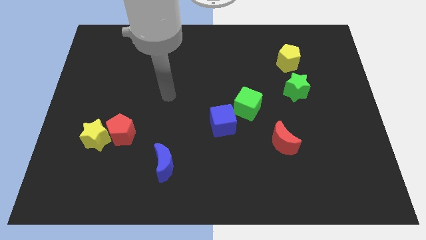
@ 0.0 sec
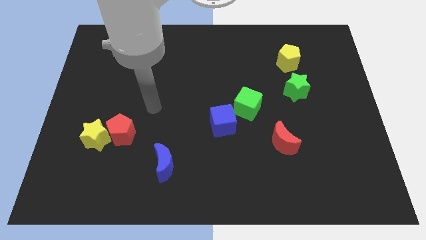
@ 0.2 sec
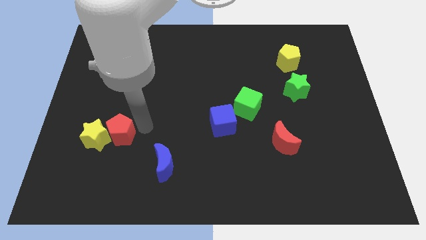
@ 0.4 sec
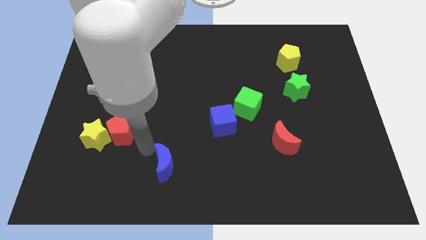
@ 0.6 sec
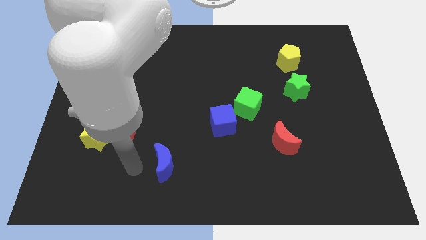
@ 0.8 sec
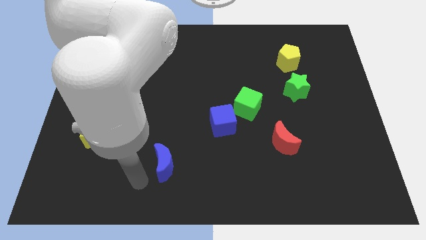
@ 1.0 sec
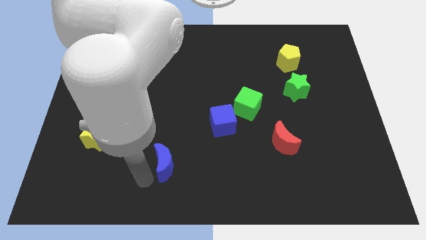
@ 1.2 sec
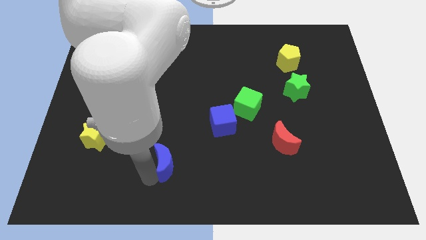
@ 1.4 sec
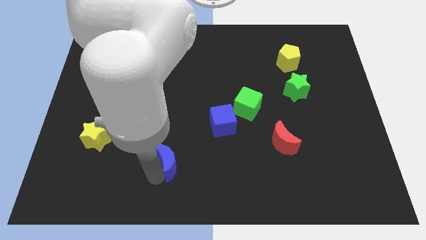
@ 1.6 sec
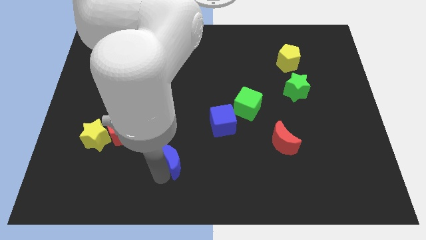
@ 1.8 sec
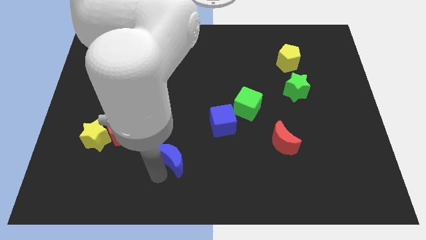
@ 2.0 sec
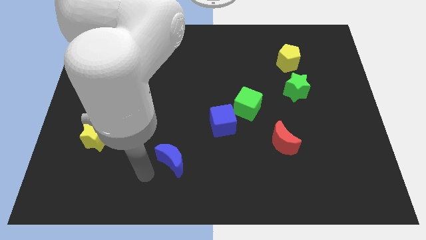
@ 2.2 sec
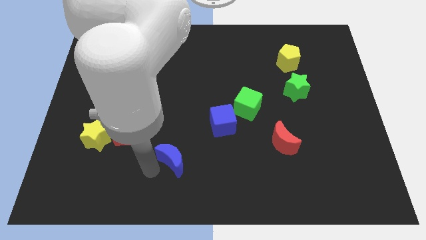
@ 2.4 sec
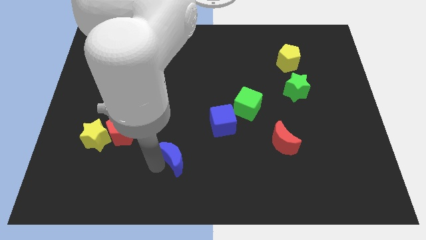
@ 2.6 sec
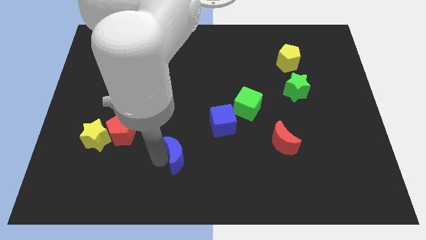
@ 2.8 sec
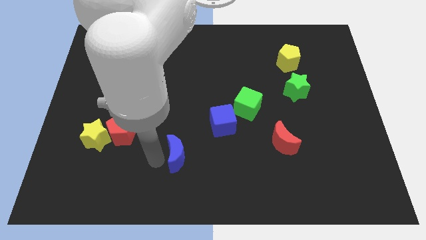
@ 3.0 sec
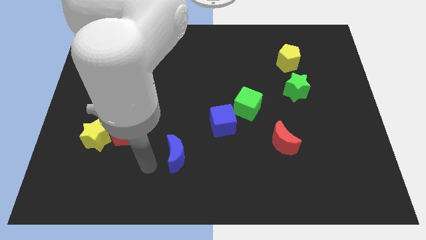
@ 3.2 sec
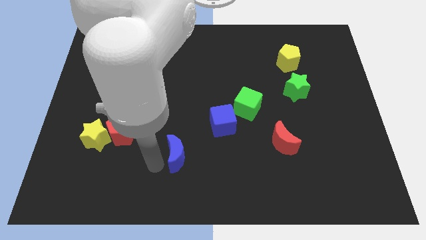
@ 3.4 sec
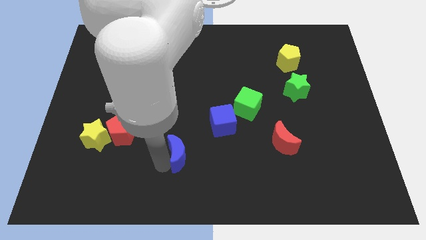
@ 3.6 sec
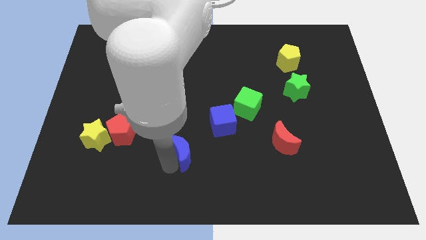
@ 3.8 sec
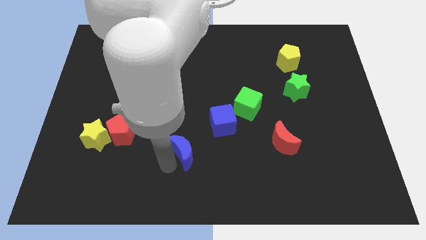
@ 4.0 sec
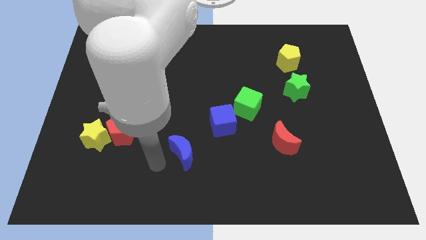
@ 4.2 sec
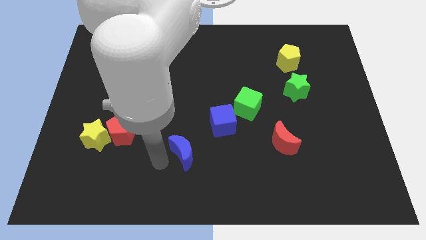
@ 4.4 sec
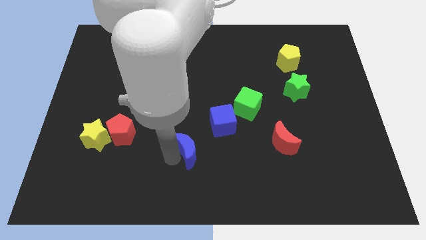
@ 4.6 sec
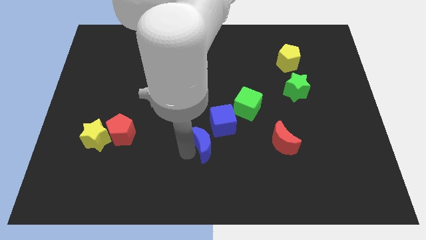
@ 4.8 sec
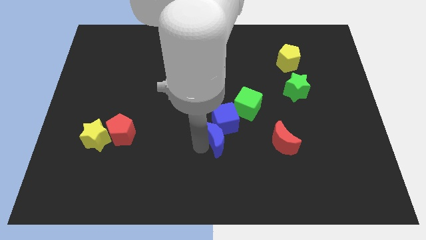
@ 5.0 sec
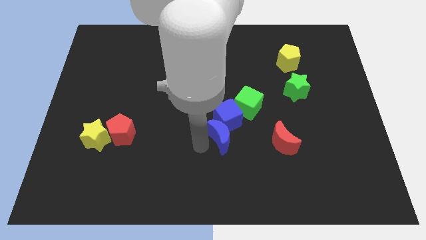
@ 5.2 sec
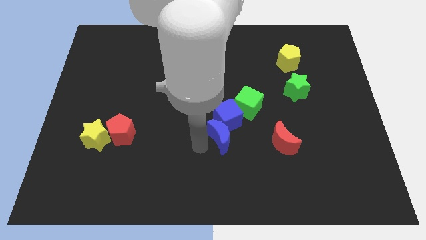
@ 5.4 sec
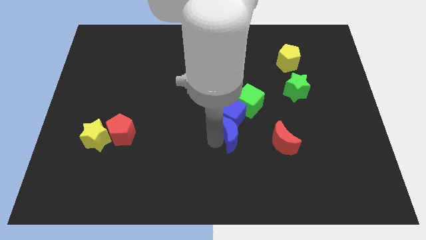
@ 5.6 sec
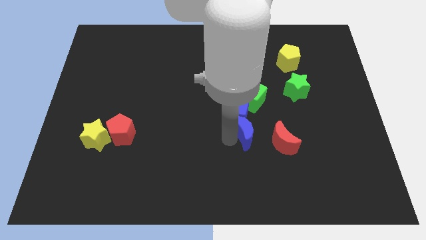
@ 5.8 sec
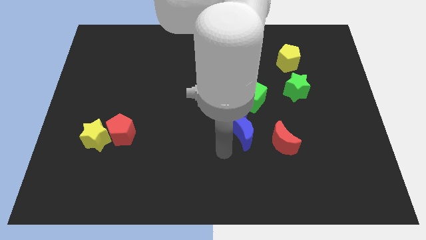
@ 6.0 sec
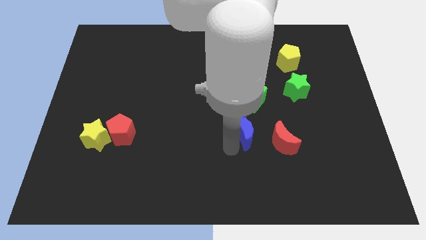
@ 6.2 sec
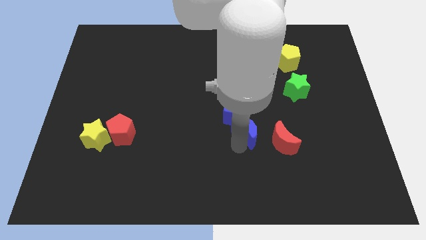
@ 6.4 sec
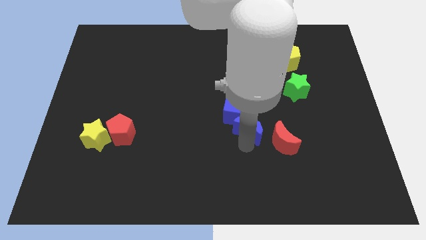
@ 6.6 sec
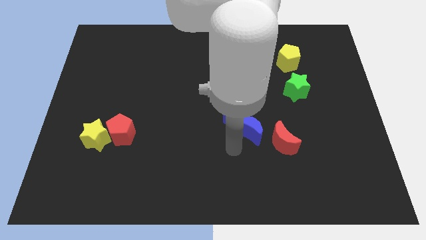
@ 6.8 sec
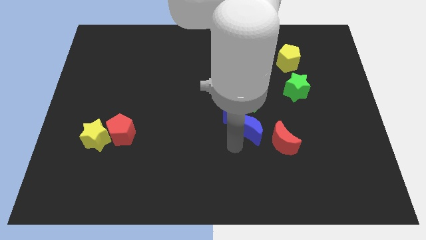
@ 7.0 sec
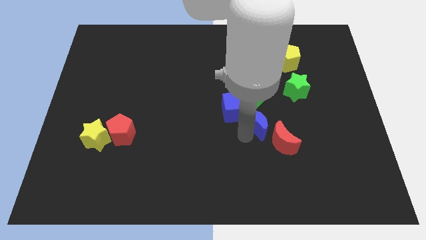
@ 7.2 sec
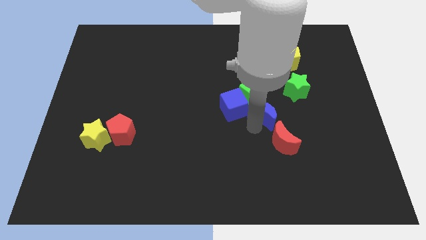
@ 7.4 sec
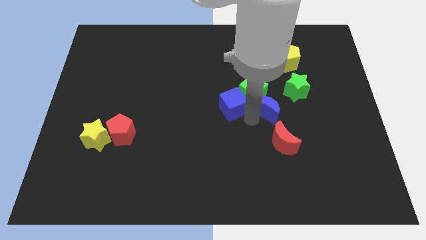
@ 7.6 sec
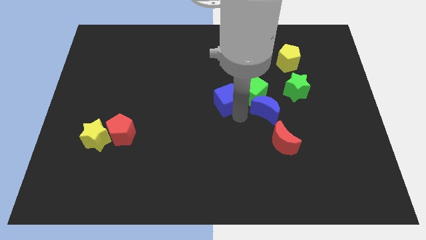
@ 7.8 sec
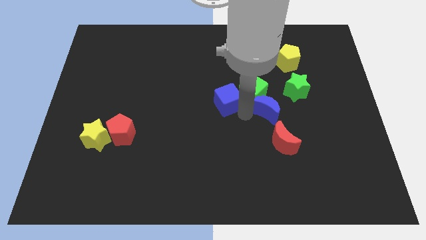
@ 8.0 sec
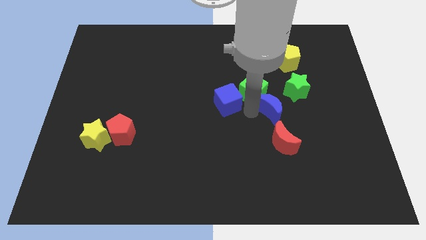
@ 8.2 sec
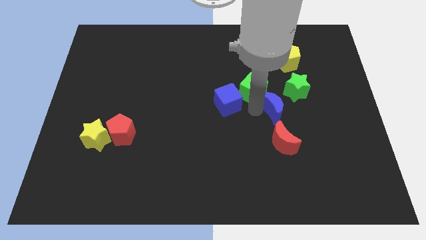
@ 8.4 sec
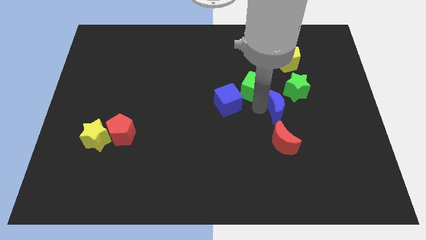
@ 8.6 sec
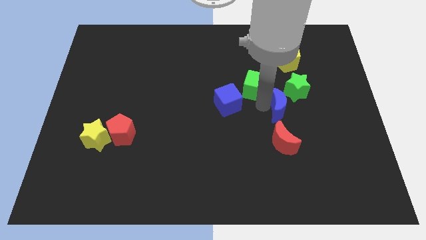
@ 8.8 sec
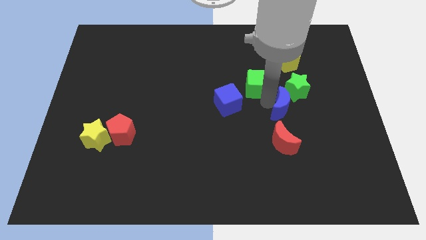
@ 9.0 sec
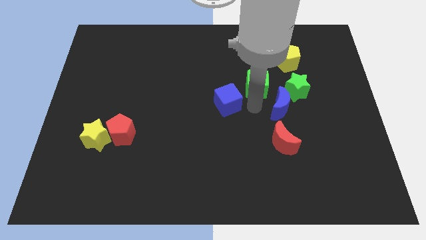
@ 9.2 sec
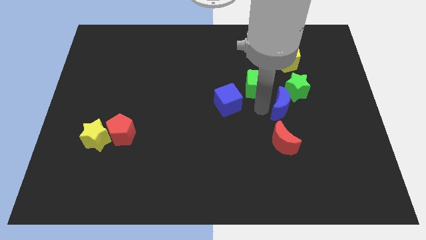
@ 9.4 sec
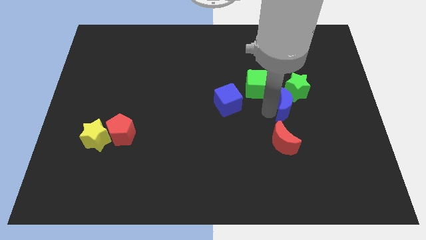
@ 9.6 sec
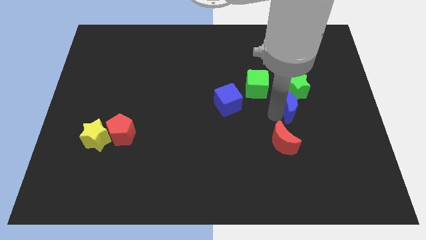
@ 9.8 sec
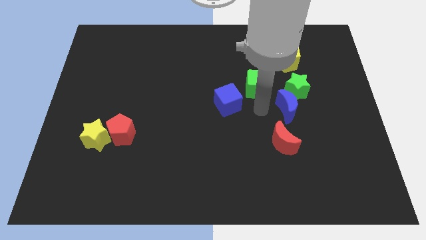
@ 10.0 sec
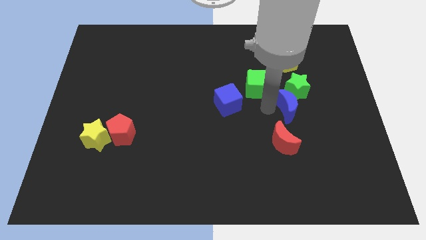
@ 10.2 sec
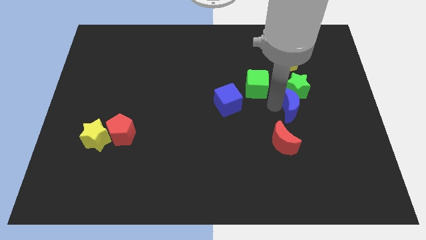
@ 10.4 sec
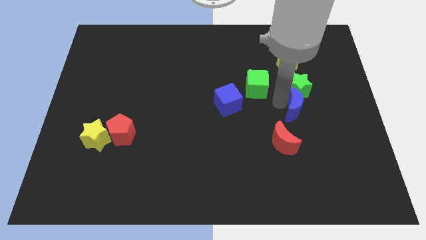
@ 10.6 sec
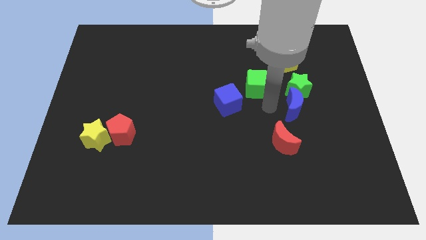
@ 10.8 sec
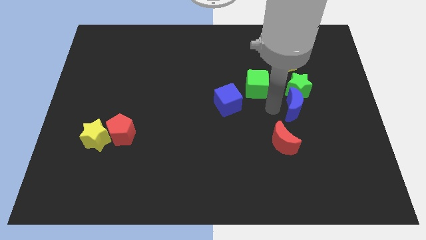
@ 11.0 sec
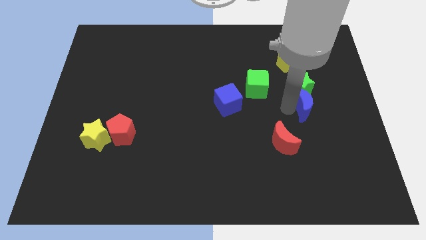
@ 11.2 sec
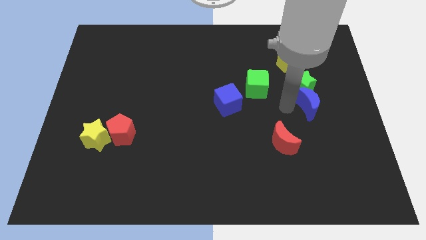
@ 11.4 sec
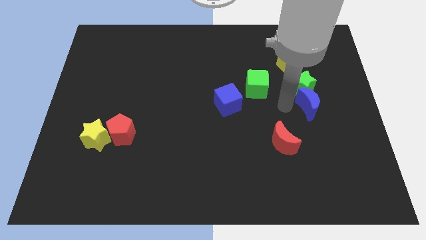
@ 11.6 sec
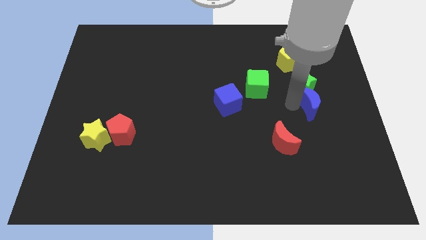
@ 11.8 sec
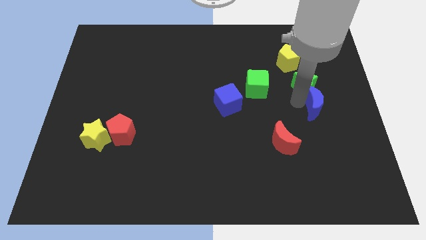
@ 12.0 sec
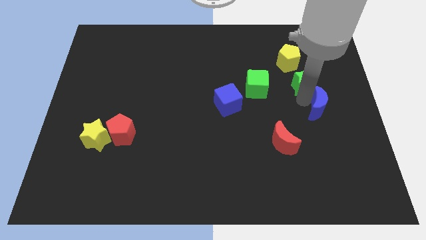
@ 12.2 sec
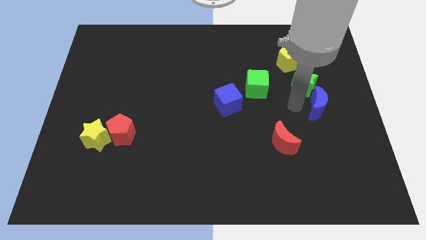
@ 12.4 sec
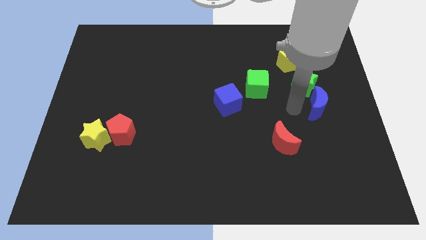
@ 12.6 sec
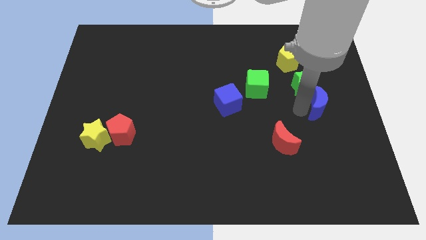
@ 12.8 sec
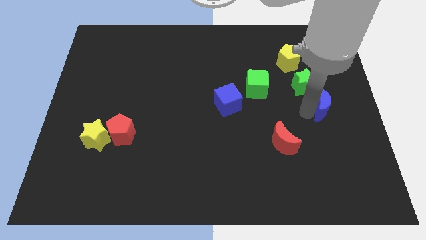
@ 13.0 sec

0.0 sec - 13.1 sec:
slide the blue moon to the right side

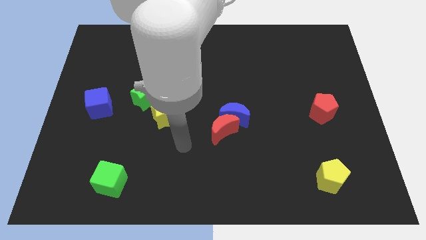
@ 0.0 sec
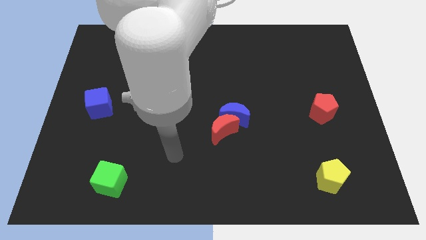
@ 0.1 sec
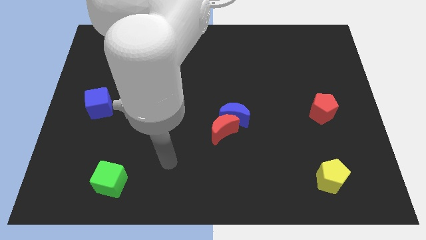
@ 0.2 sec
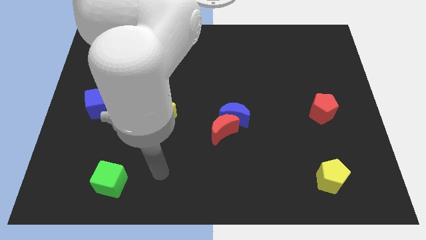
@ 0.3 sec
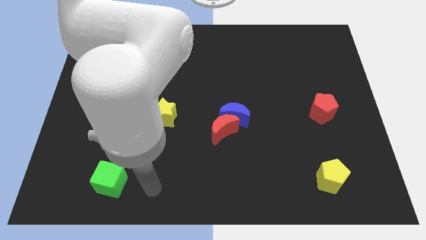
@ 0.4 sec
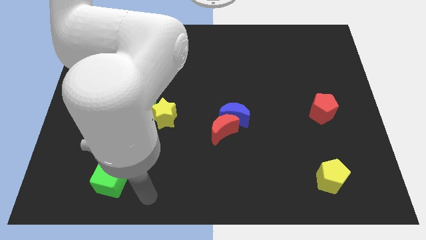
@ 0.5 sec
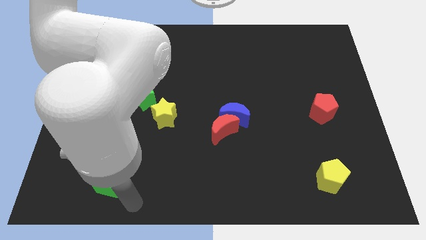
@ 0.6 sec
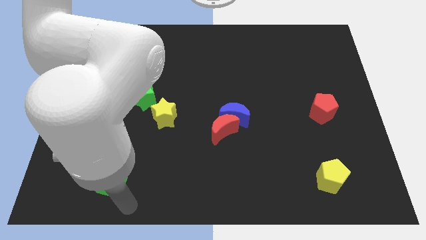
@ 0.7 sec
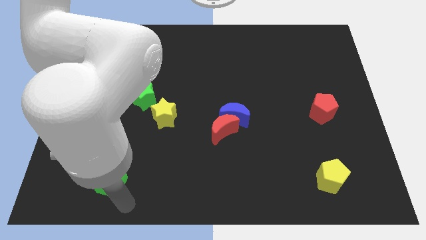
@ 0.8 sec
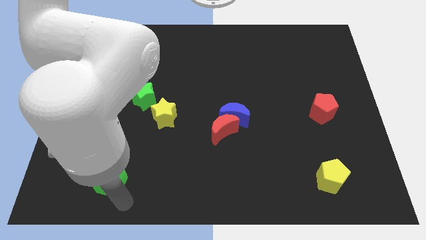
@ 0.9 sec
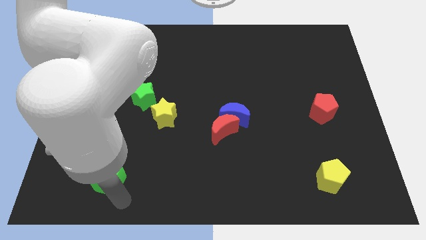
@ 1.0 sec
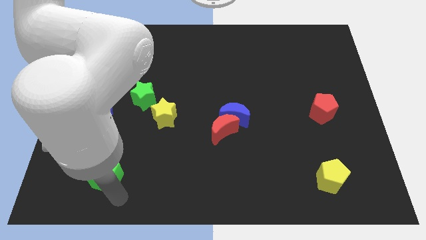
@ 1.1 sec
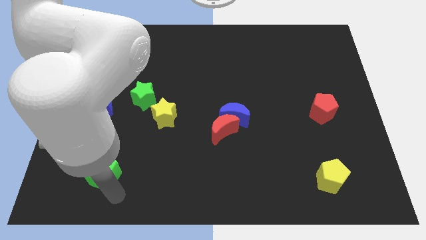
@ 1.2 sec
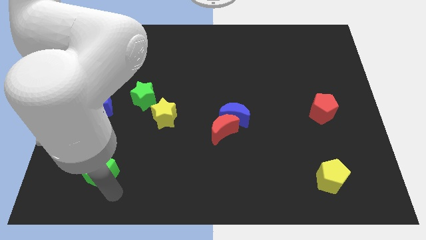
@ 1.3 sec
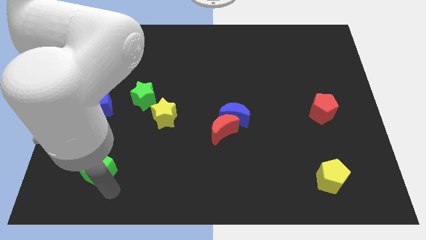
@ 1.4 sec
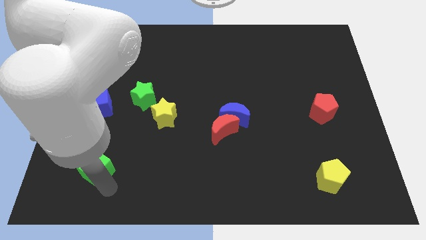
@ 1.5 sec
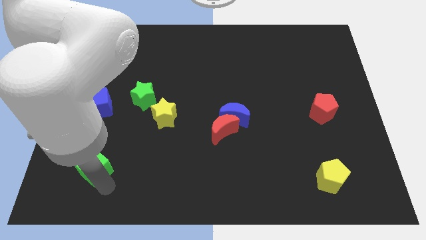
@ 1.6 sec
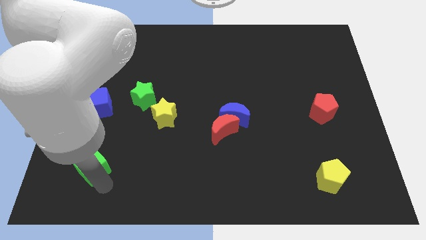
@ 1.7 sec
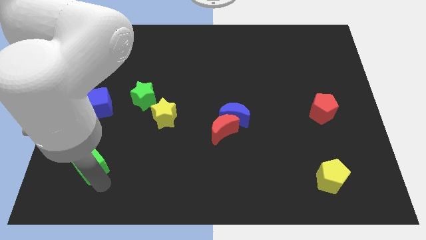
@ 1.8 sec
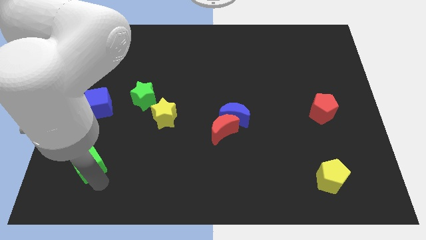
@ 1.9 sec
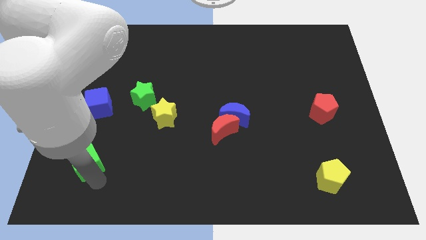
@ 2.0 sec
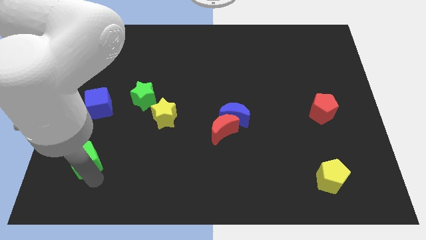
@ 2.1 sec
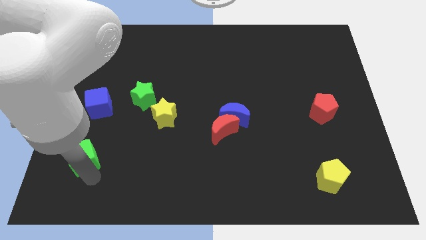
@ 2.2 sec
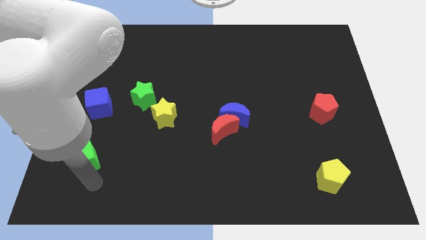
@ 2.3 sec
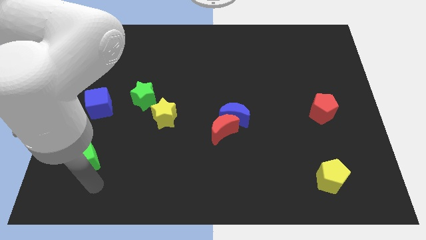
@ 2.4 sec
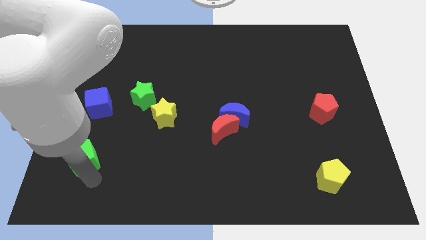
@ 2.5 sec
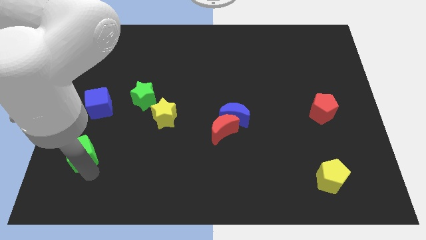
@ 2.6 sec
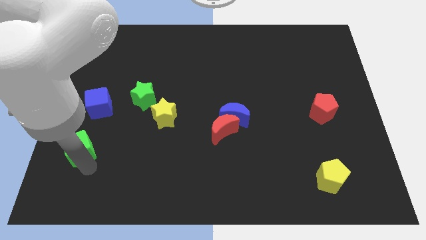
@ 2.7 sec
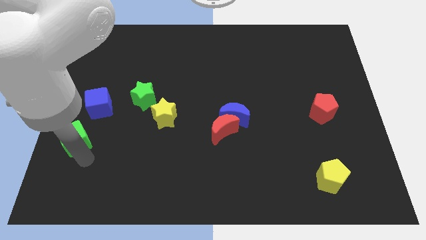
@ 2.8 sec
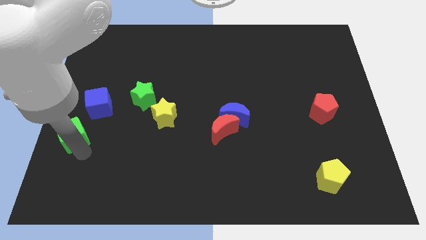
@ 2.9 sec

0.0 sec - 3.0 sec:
slide the green cube to the left side of the board
